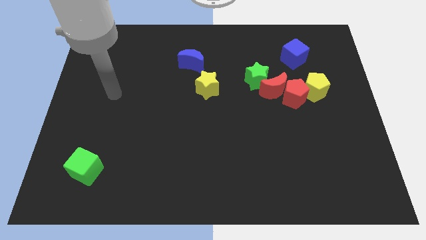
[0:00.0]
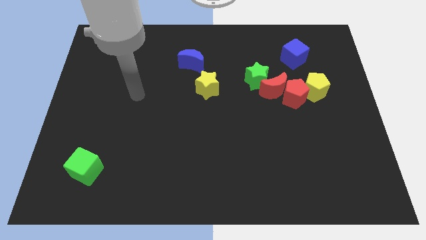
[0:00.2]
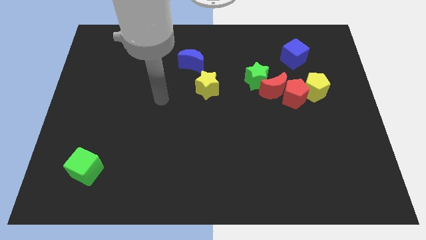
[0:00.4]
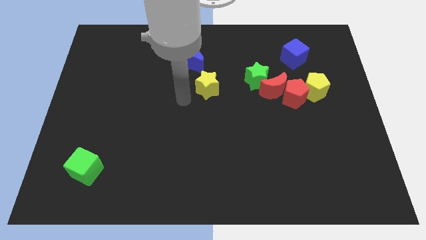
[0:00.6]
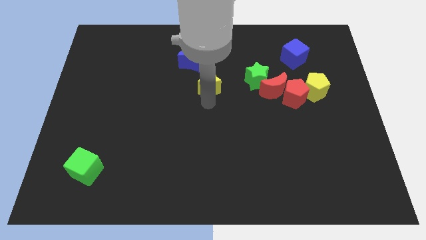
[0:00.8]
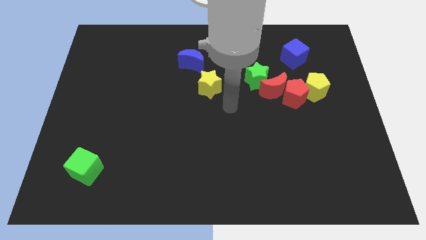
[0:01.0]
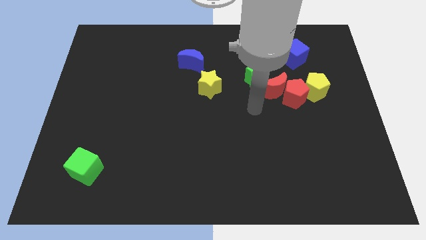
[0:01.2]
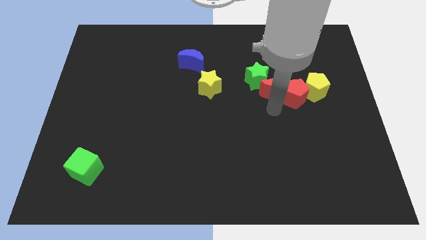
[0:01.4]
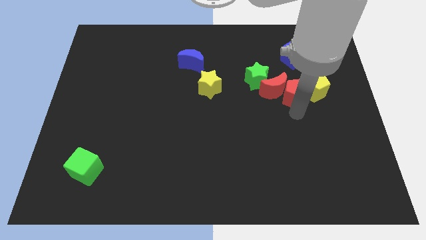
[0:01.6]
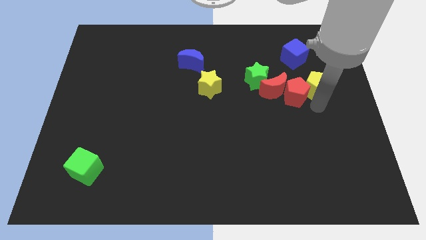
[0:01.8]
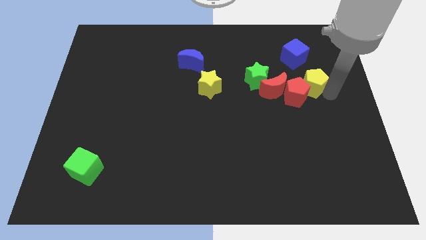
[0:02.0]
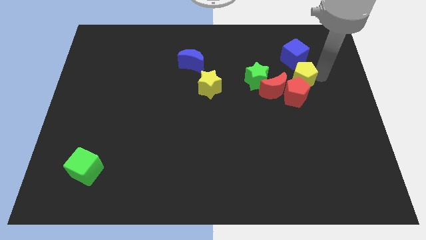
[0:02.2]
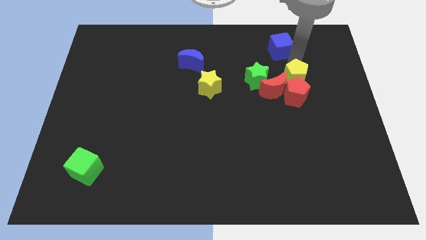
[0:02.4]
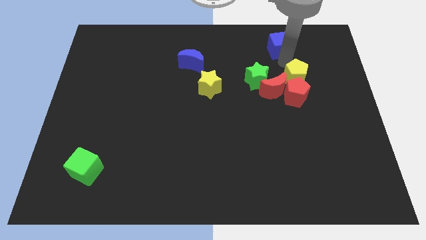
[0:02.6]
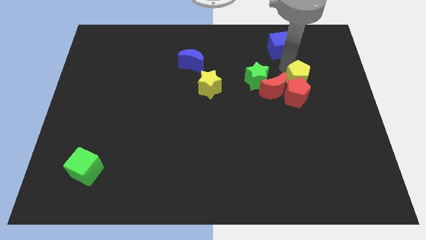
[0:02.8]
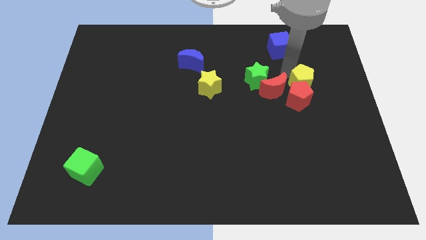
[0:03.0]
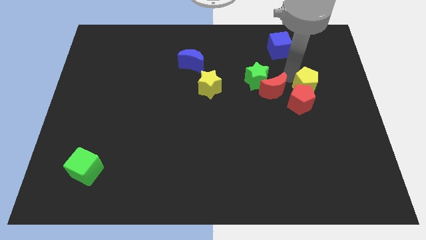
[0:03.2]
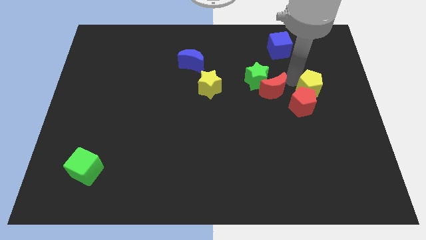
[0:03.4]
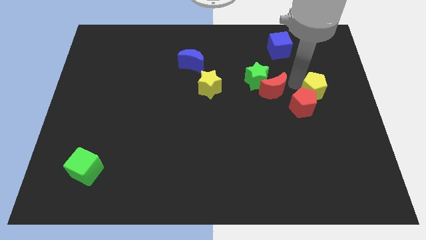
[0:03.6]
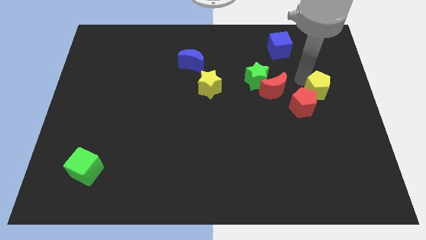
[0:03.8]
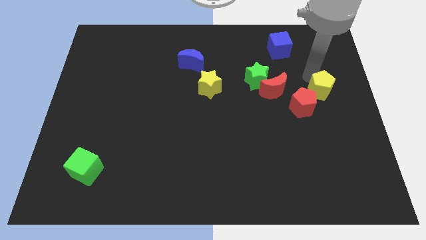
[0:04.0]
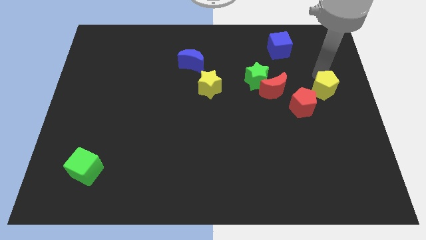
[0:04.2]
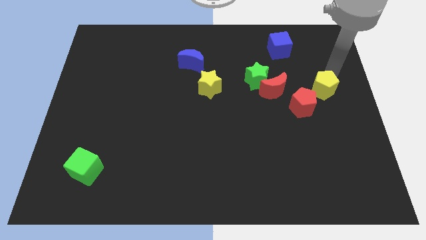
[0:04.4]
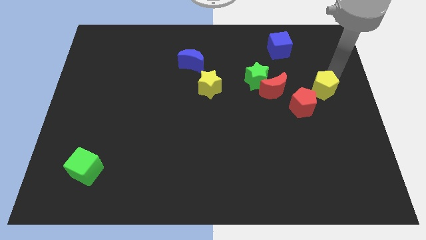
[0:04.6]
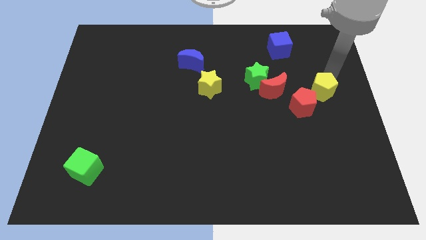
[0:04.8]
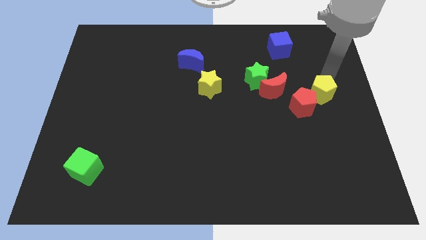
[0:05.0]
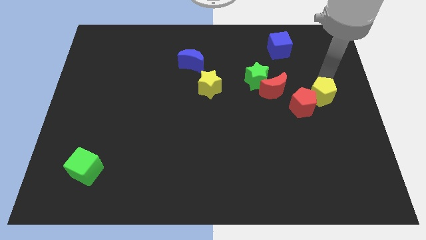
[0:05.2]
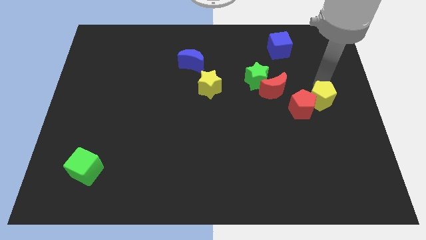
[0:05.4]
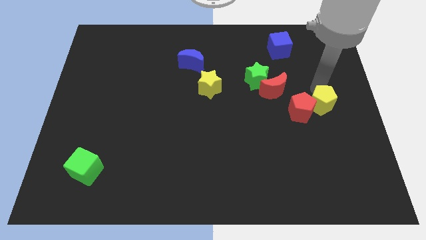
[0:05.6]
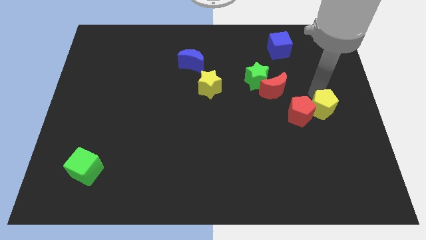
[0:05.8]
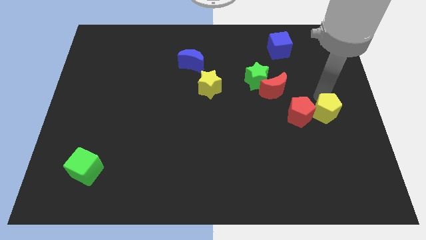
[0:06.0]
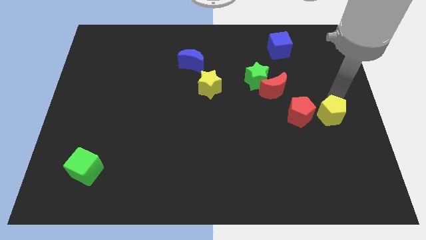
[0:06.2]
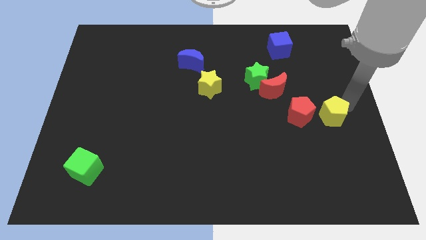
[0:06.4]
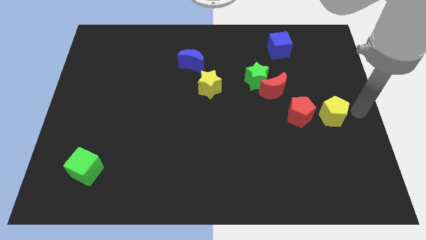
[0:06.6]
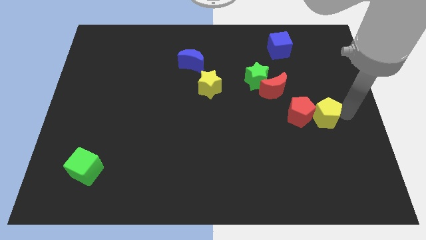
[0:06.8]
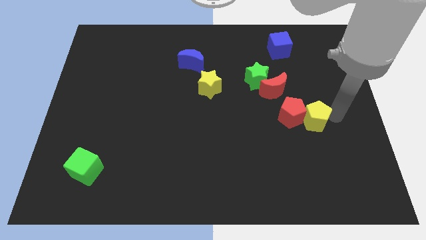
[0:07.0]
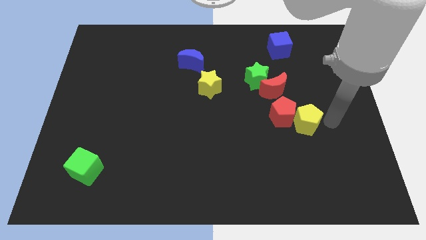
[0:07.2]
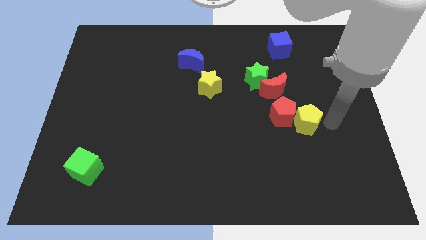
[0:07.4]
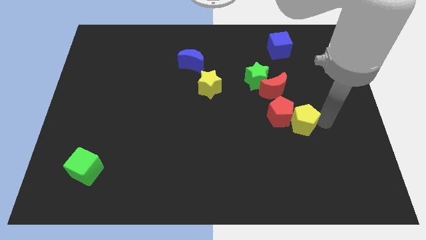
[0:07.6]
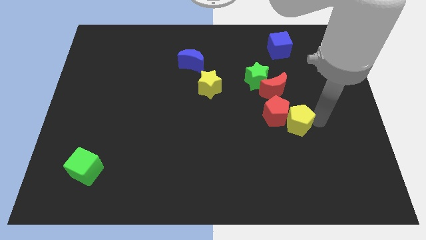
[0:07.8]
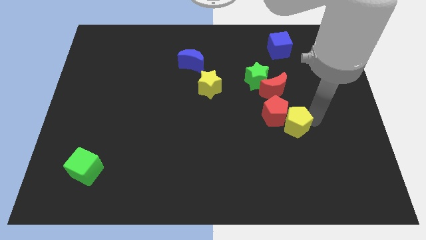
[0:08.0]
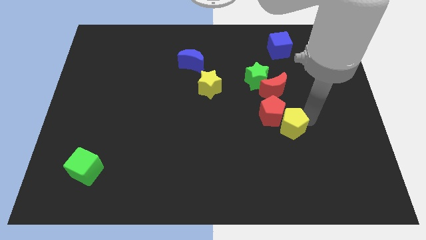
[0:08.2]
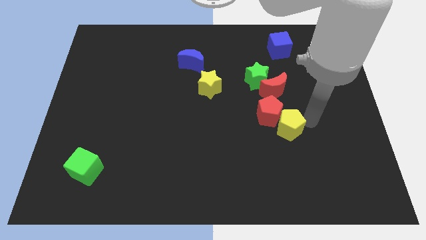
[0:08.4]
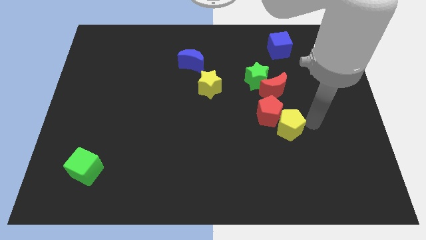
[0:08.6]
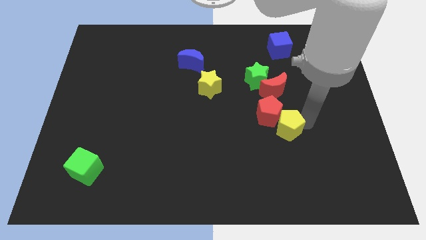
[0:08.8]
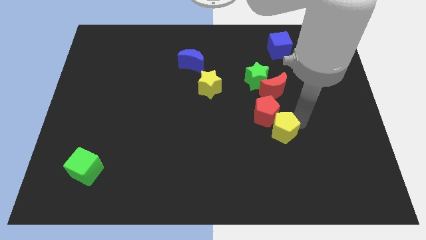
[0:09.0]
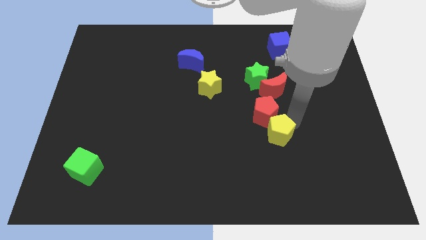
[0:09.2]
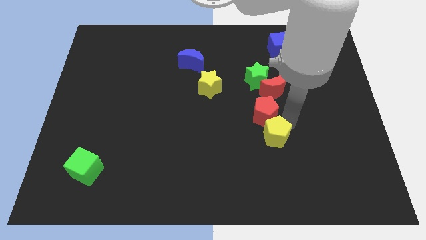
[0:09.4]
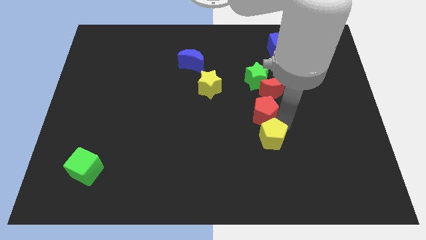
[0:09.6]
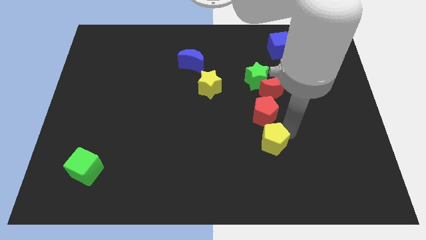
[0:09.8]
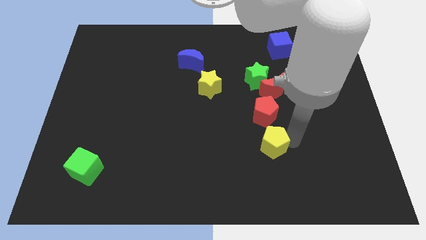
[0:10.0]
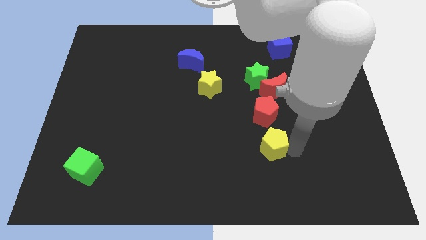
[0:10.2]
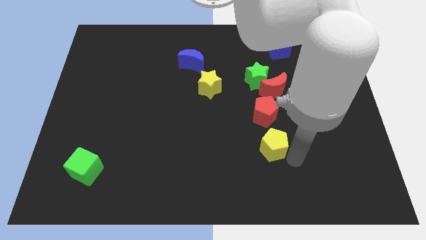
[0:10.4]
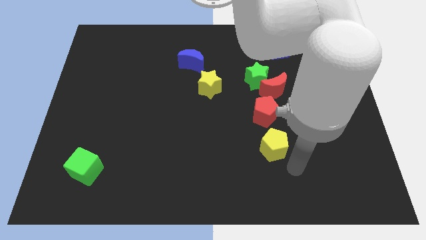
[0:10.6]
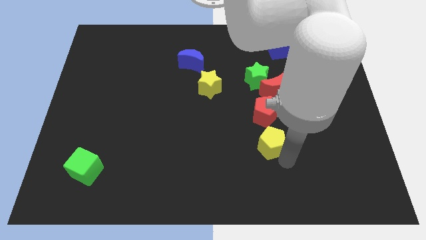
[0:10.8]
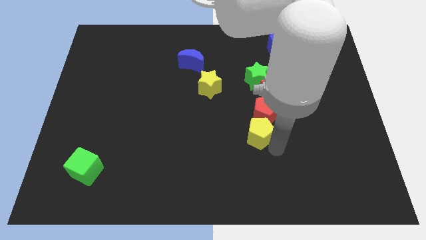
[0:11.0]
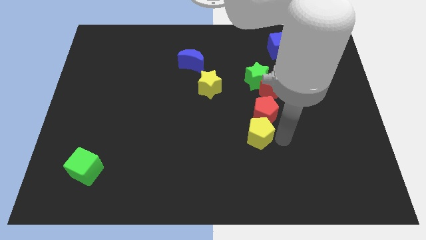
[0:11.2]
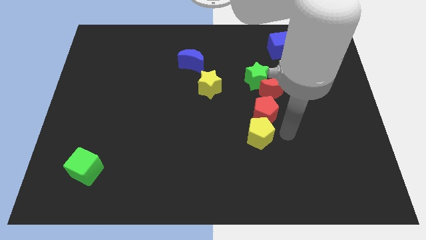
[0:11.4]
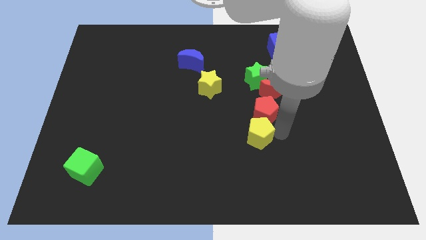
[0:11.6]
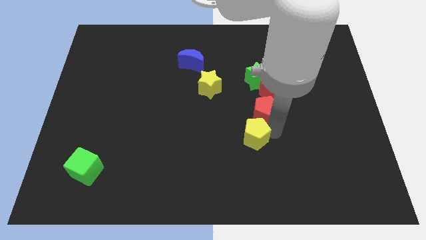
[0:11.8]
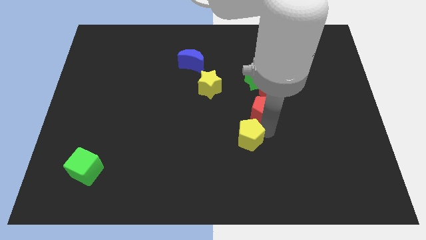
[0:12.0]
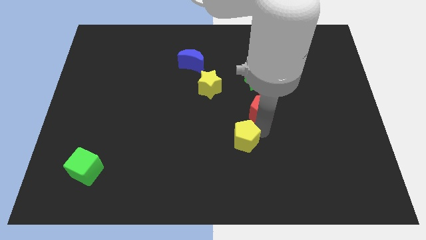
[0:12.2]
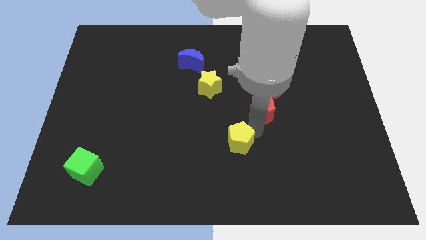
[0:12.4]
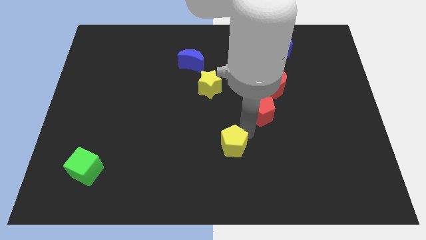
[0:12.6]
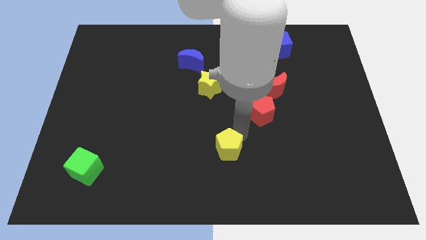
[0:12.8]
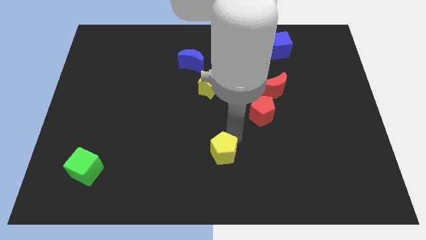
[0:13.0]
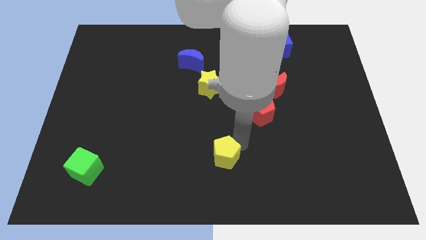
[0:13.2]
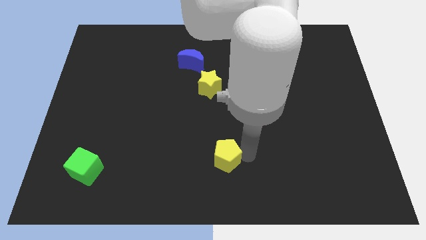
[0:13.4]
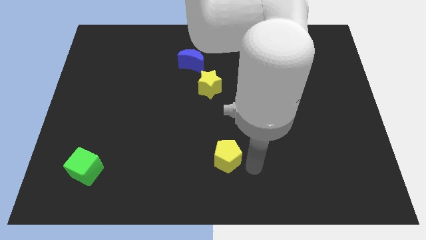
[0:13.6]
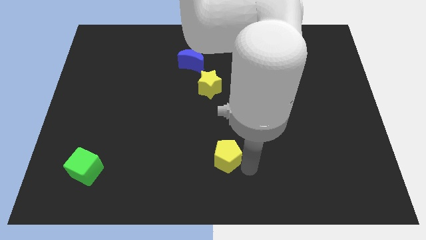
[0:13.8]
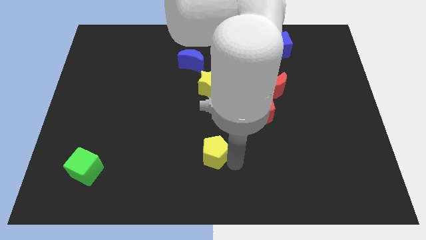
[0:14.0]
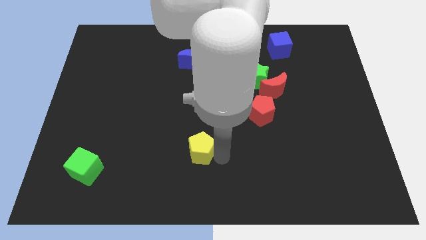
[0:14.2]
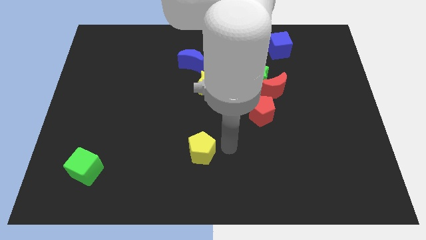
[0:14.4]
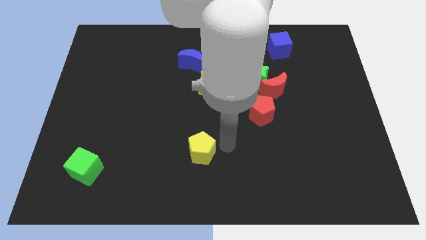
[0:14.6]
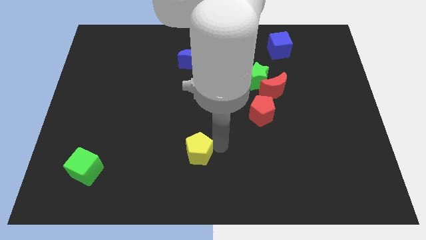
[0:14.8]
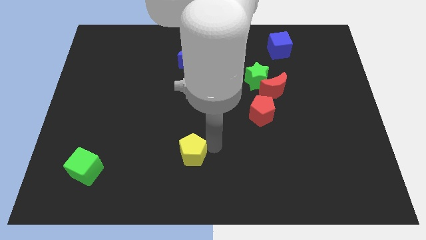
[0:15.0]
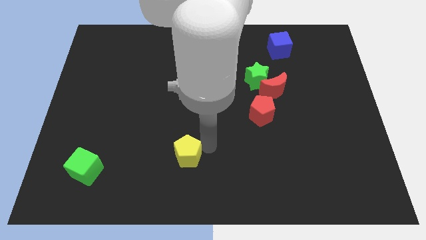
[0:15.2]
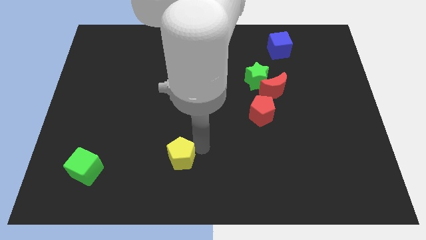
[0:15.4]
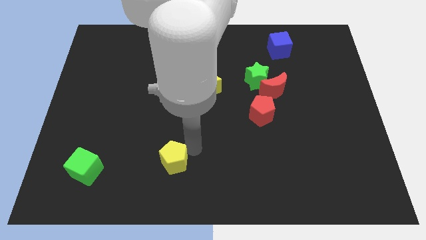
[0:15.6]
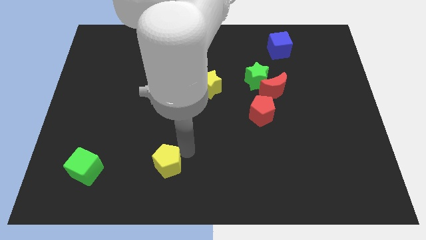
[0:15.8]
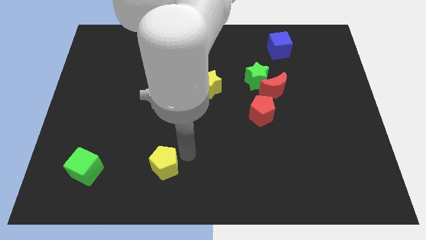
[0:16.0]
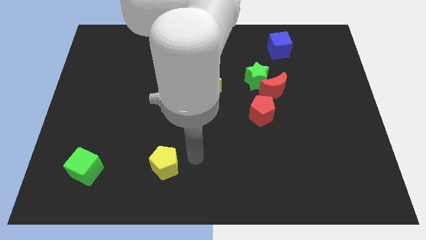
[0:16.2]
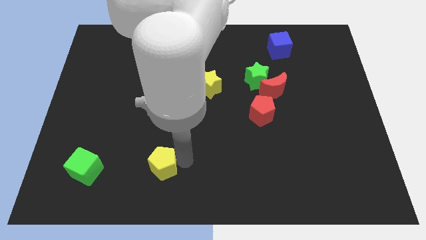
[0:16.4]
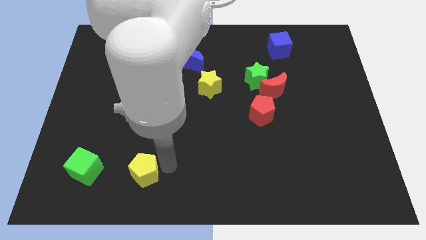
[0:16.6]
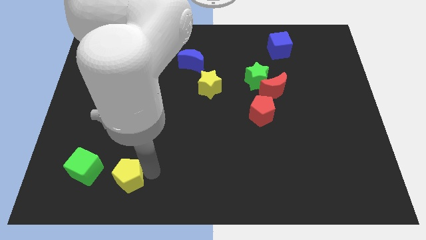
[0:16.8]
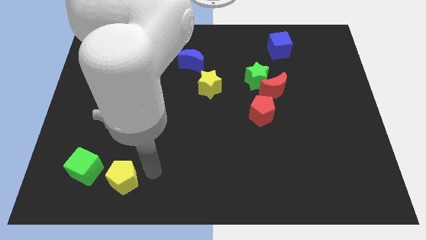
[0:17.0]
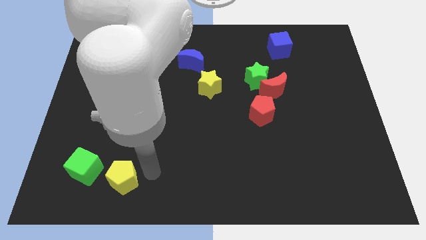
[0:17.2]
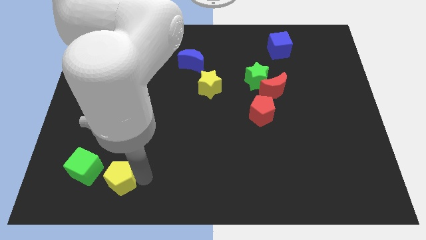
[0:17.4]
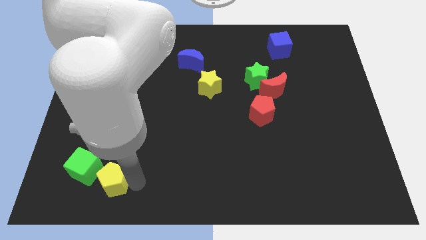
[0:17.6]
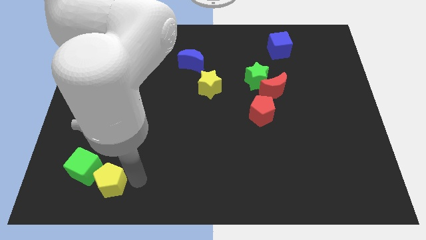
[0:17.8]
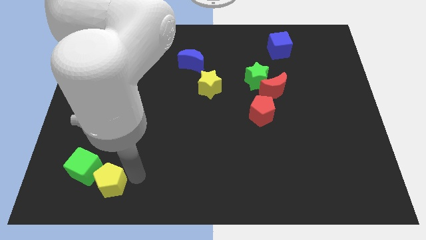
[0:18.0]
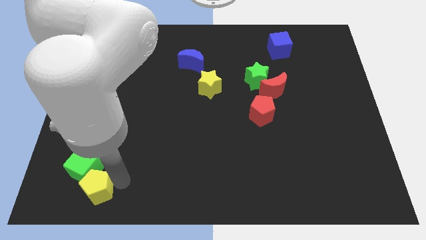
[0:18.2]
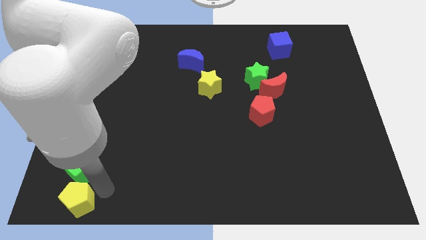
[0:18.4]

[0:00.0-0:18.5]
move the yellow pentagon to the lower left corner
